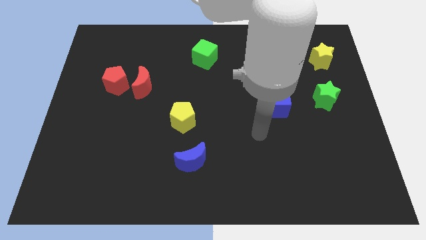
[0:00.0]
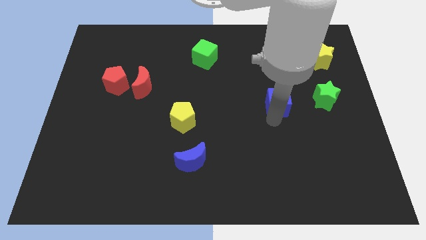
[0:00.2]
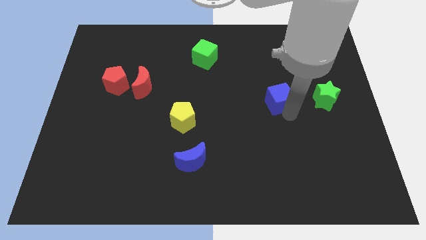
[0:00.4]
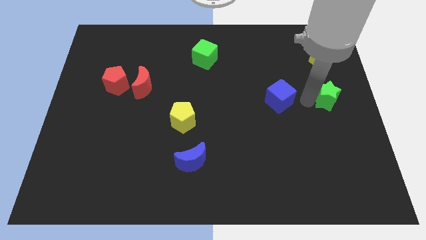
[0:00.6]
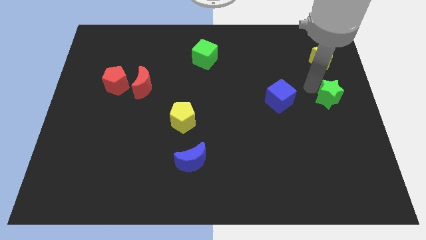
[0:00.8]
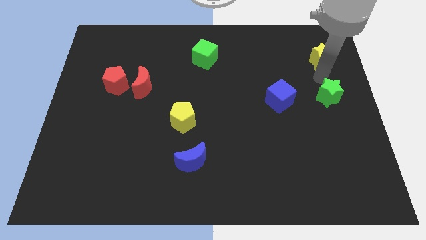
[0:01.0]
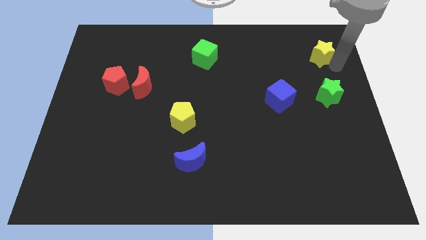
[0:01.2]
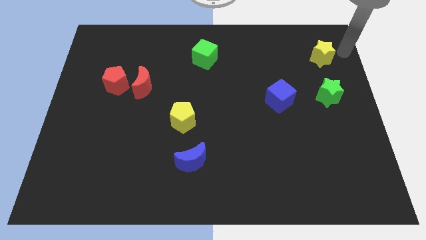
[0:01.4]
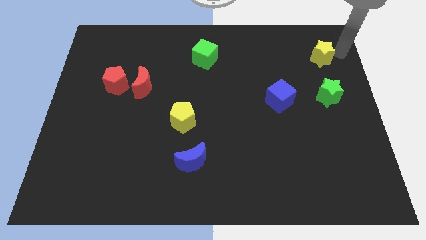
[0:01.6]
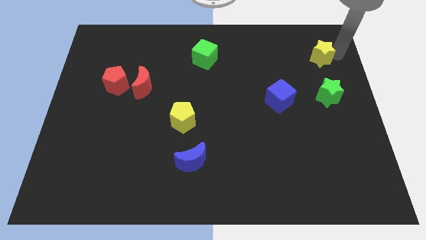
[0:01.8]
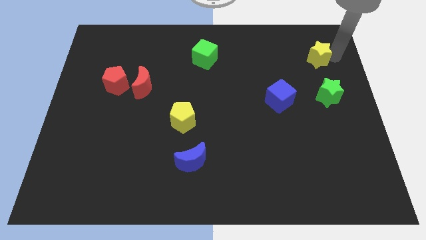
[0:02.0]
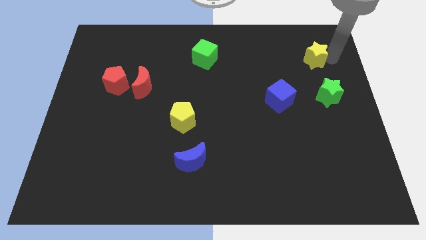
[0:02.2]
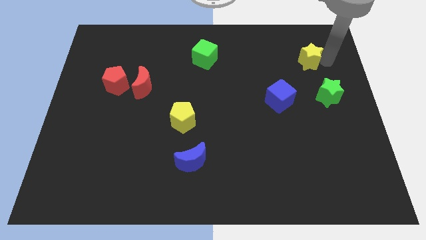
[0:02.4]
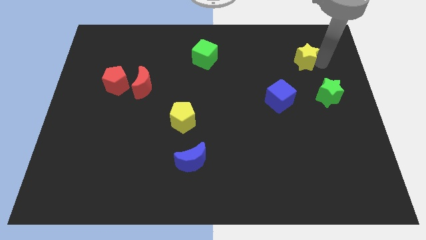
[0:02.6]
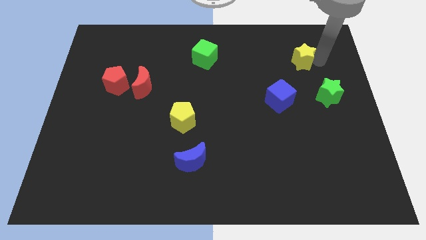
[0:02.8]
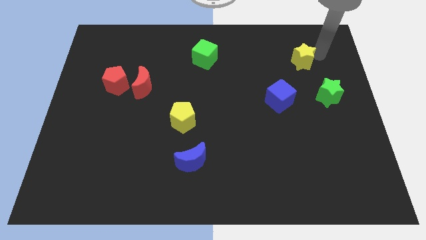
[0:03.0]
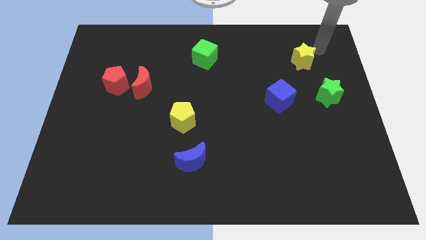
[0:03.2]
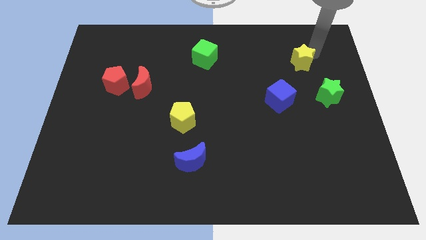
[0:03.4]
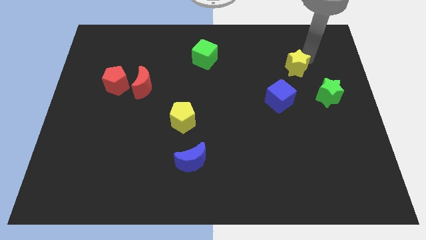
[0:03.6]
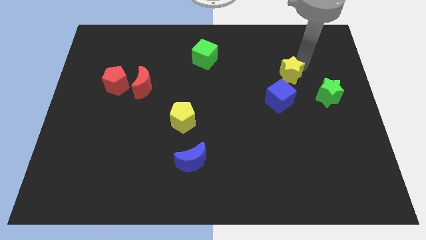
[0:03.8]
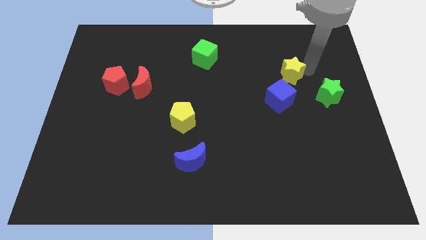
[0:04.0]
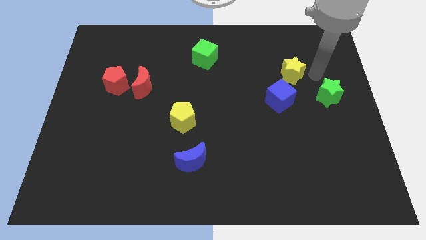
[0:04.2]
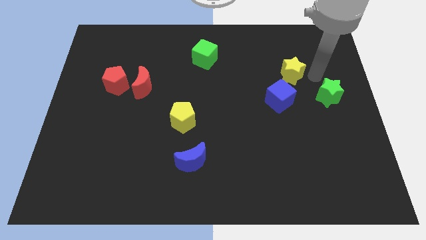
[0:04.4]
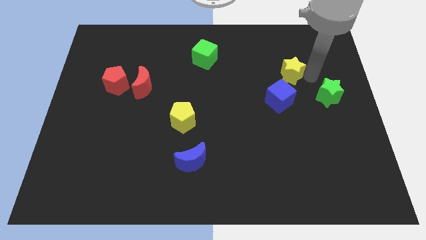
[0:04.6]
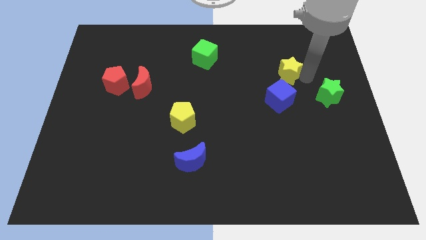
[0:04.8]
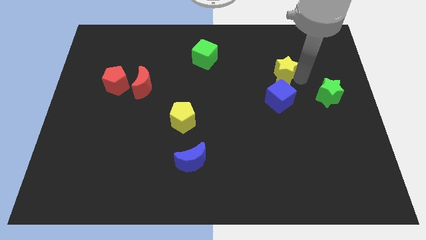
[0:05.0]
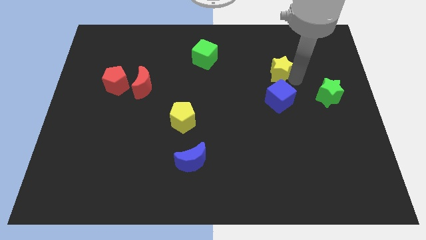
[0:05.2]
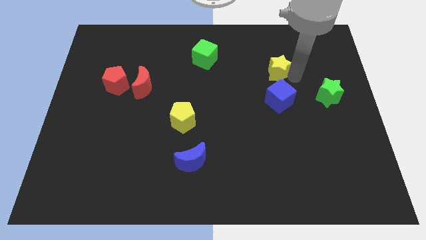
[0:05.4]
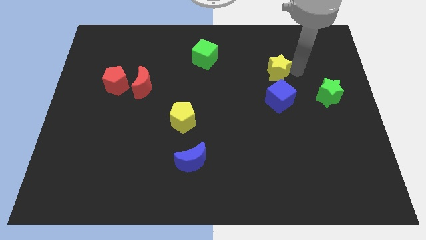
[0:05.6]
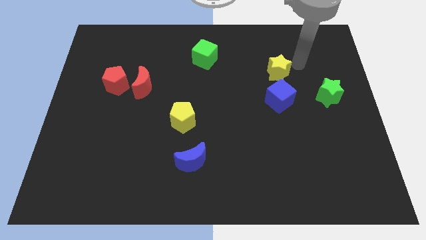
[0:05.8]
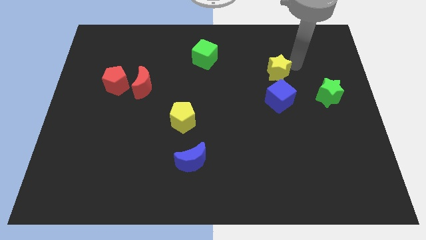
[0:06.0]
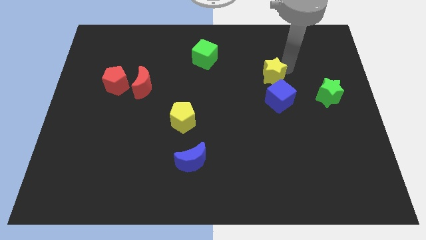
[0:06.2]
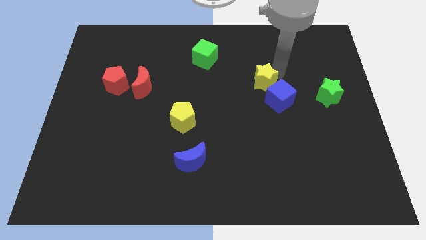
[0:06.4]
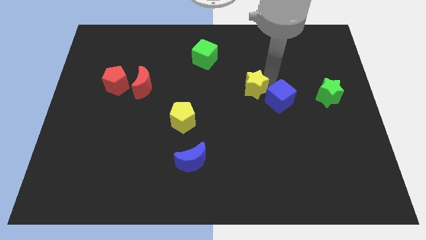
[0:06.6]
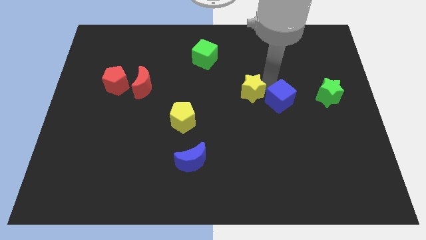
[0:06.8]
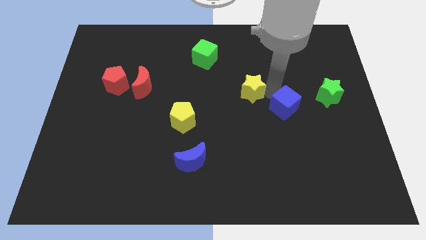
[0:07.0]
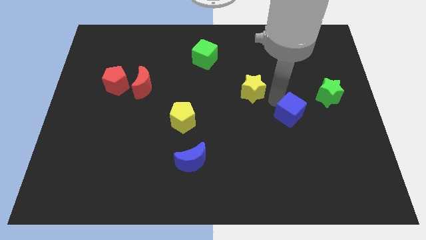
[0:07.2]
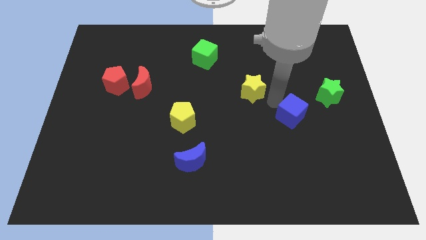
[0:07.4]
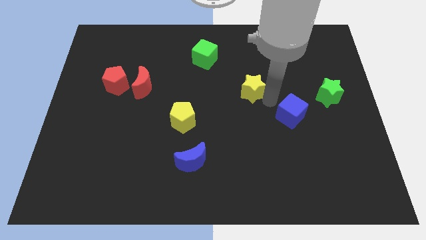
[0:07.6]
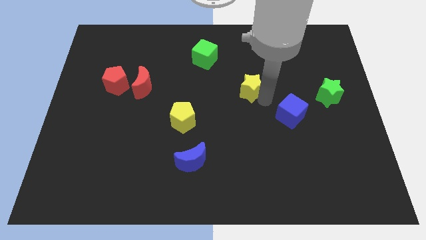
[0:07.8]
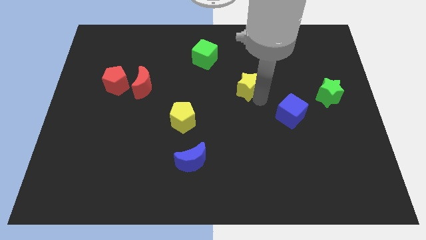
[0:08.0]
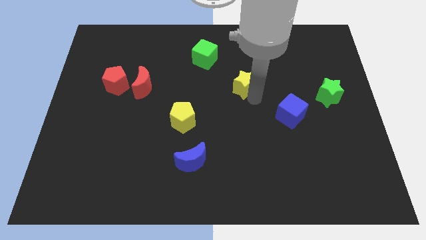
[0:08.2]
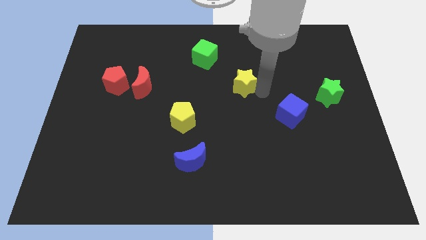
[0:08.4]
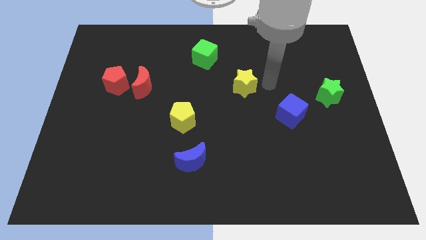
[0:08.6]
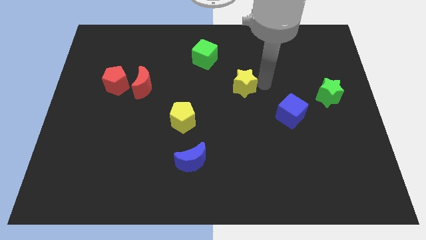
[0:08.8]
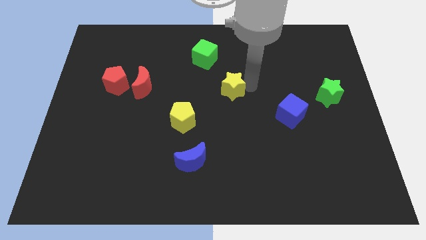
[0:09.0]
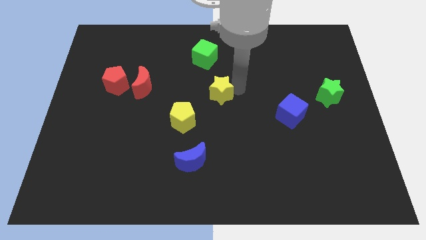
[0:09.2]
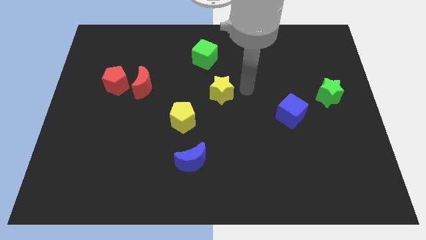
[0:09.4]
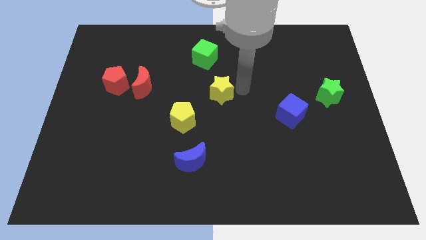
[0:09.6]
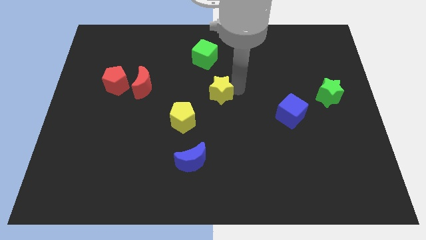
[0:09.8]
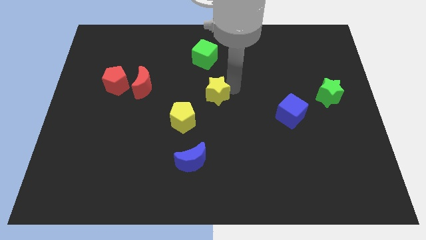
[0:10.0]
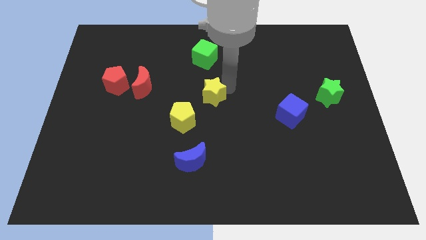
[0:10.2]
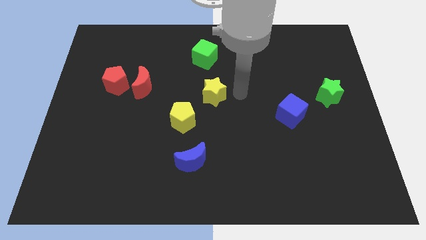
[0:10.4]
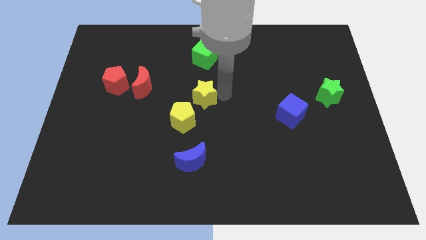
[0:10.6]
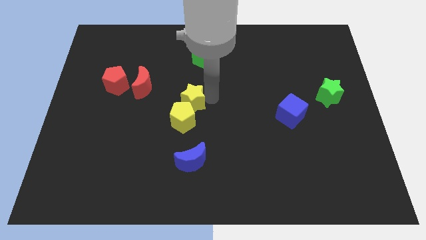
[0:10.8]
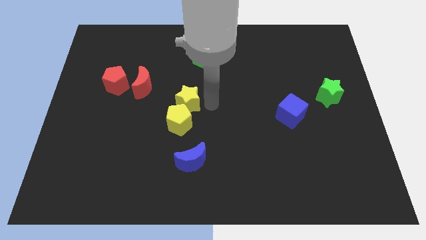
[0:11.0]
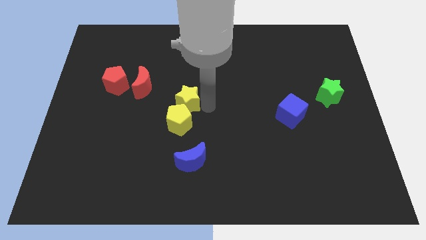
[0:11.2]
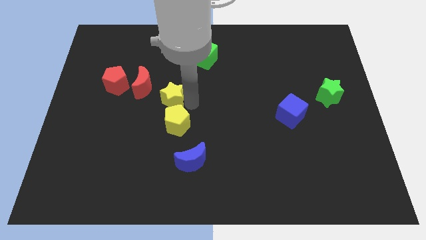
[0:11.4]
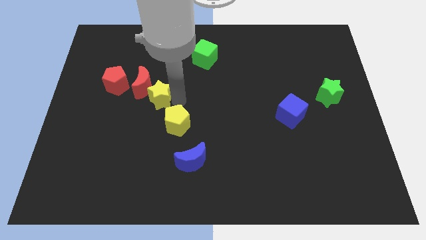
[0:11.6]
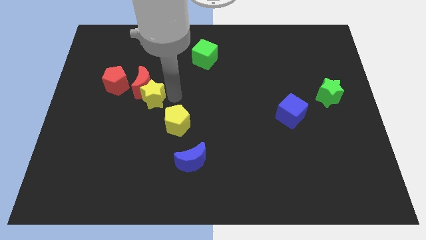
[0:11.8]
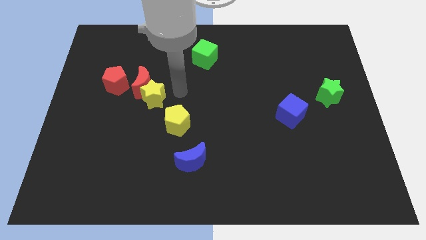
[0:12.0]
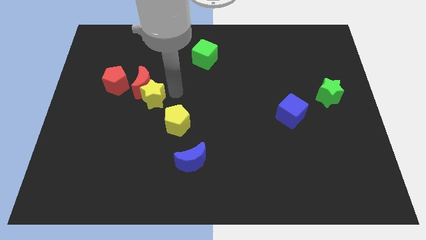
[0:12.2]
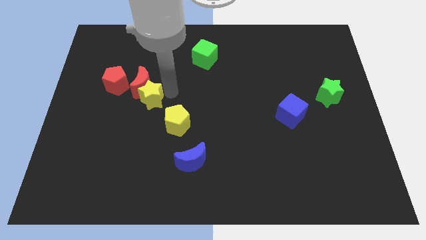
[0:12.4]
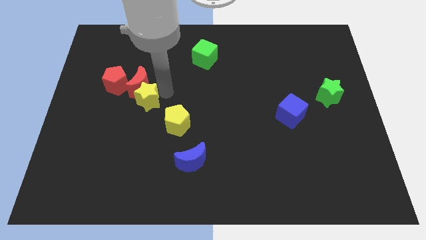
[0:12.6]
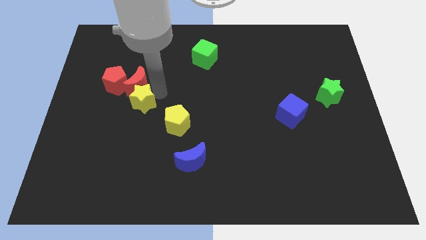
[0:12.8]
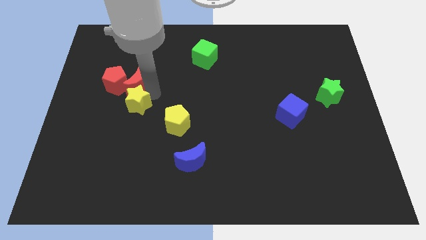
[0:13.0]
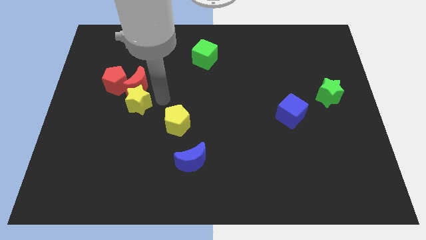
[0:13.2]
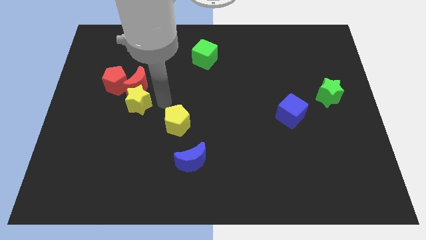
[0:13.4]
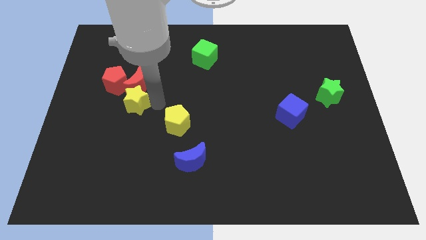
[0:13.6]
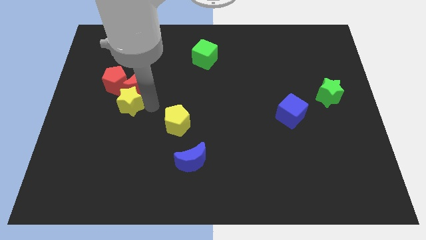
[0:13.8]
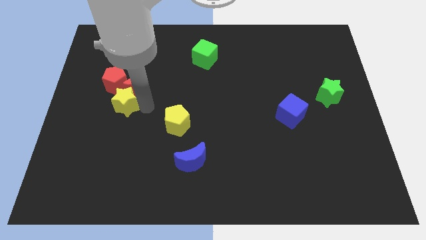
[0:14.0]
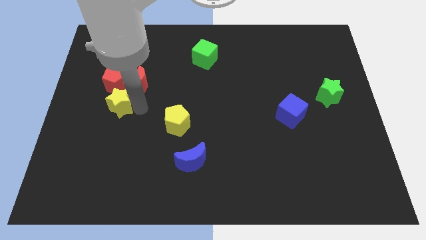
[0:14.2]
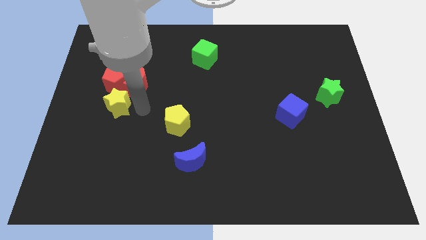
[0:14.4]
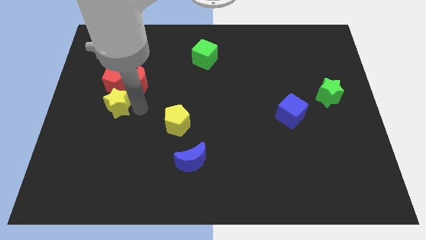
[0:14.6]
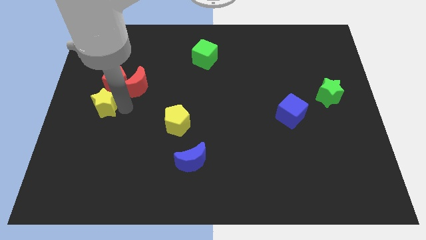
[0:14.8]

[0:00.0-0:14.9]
push the yellow star to the center left
